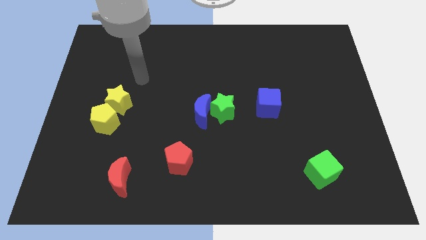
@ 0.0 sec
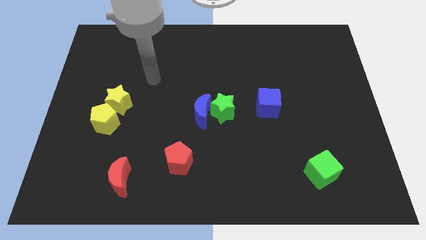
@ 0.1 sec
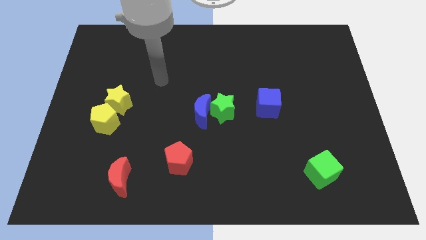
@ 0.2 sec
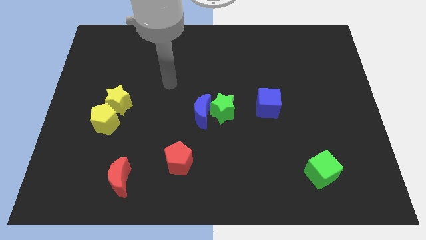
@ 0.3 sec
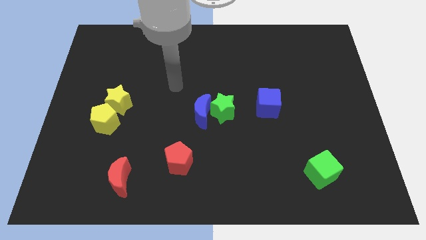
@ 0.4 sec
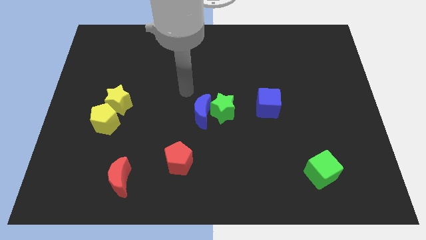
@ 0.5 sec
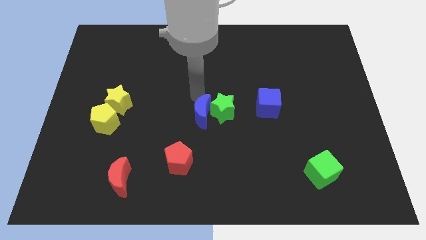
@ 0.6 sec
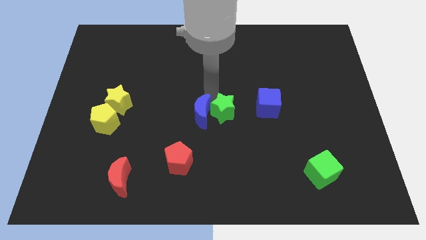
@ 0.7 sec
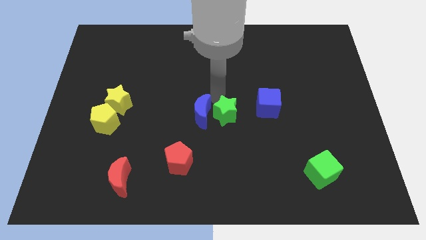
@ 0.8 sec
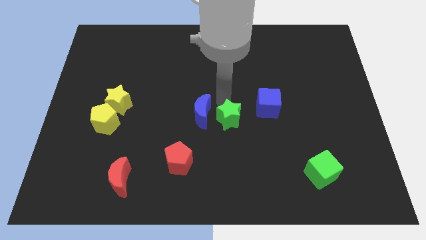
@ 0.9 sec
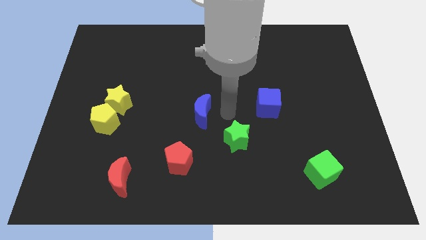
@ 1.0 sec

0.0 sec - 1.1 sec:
separate the blue moon from the green star

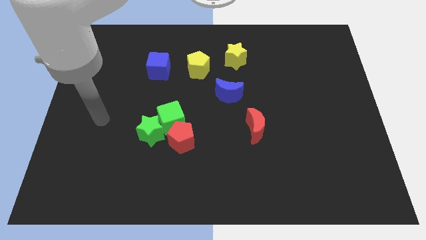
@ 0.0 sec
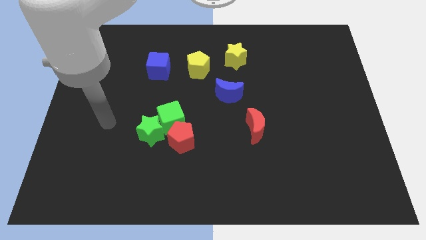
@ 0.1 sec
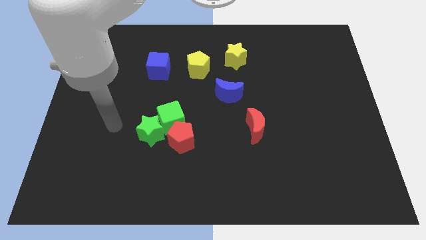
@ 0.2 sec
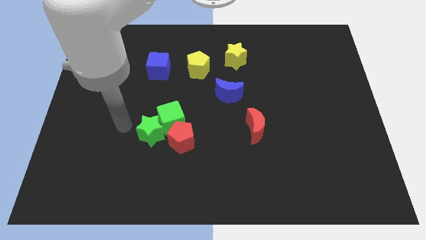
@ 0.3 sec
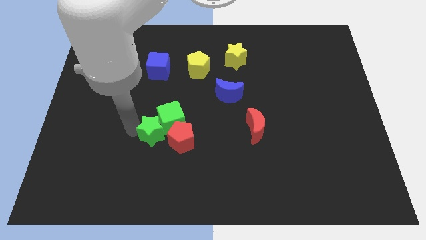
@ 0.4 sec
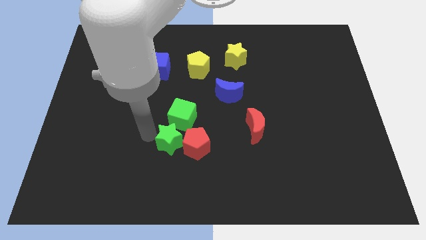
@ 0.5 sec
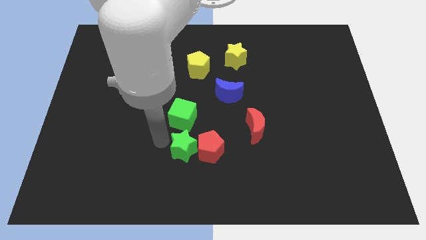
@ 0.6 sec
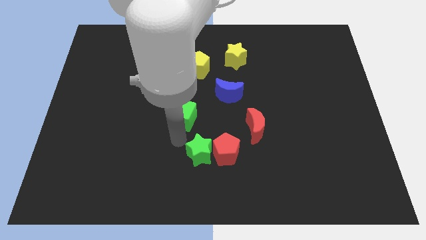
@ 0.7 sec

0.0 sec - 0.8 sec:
separate the green cube from the green star and red pentagon

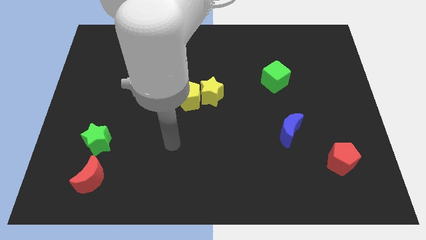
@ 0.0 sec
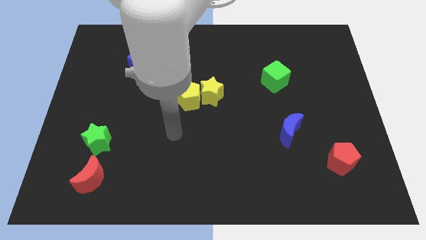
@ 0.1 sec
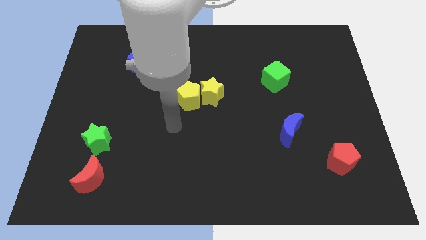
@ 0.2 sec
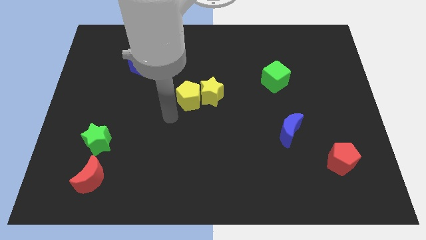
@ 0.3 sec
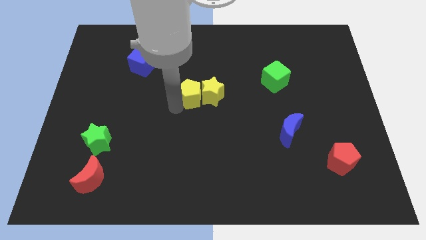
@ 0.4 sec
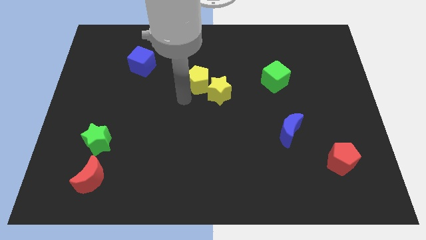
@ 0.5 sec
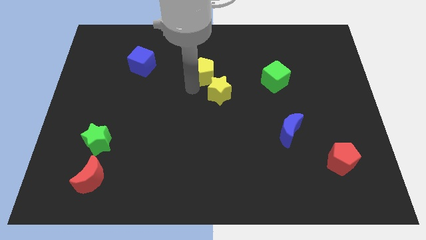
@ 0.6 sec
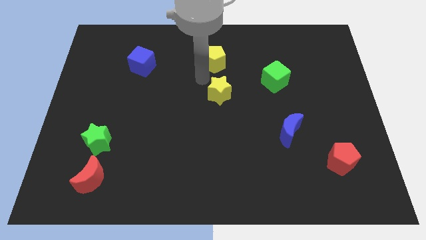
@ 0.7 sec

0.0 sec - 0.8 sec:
move the yellow star away from the yellow pentagon

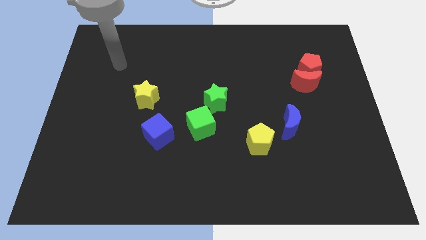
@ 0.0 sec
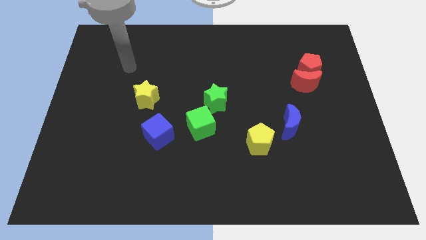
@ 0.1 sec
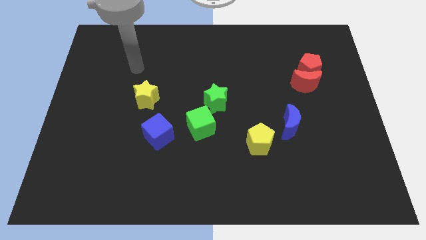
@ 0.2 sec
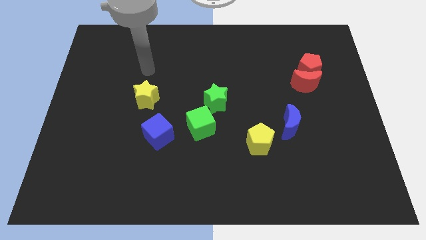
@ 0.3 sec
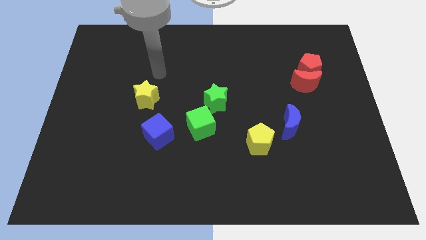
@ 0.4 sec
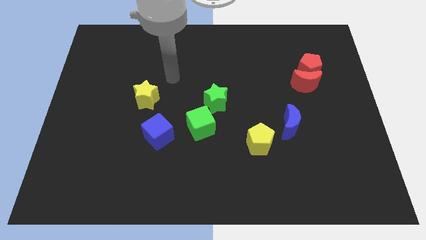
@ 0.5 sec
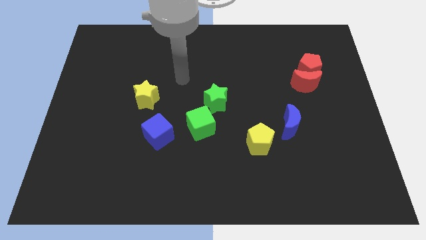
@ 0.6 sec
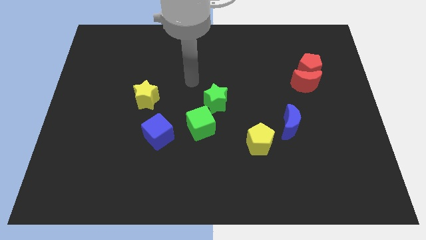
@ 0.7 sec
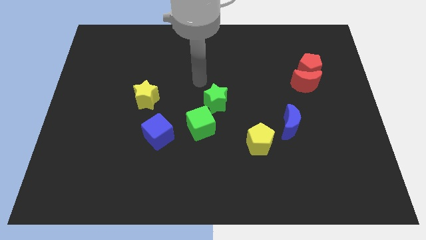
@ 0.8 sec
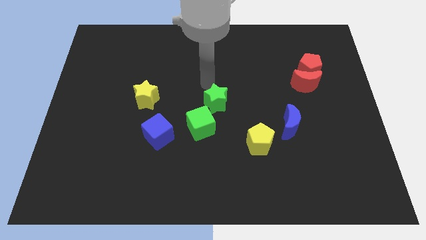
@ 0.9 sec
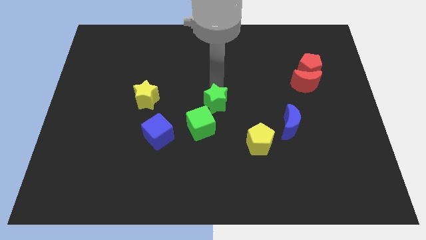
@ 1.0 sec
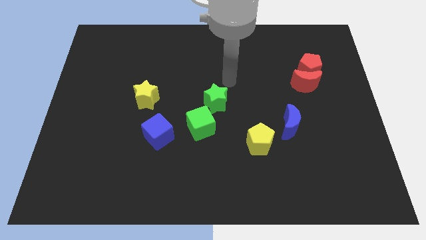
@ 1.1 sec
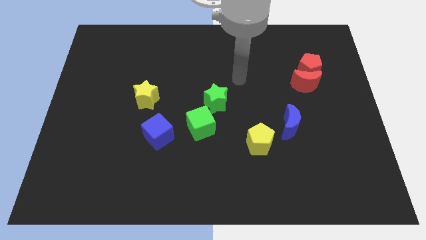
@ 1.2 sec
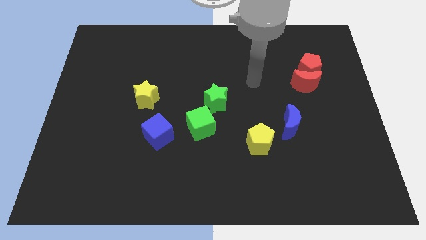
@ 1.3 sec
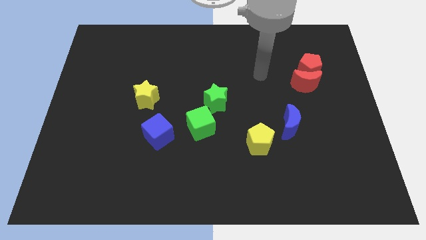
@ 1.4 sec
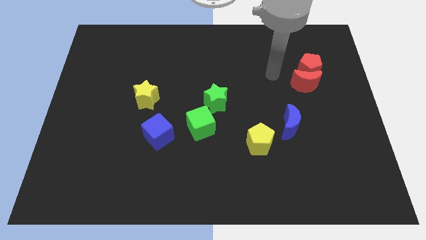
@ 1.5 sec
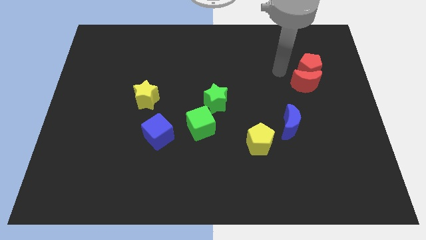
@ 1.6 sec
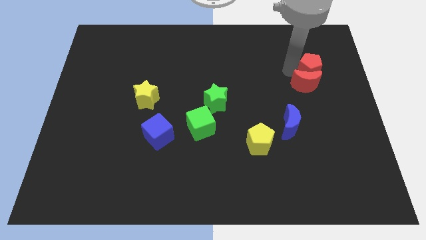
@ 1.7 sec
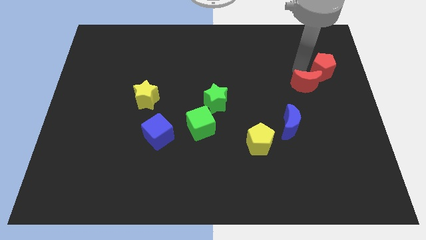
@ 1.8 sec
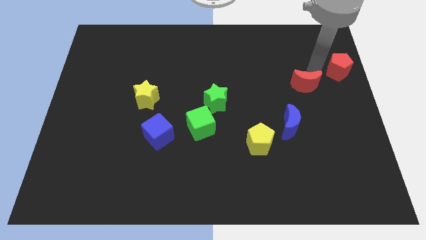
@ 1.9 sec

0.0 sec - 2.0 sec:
separate the red moon from the red pentagon

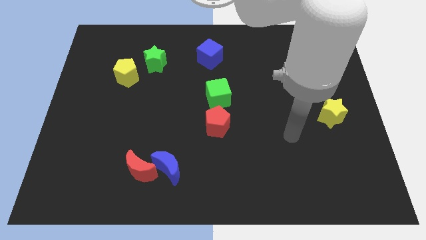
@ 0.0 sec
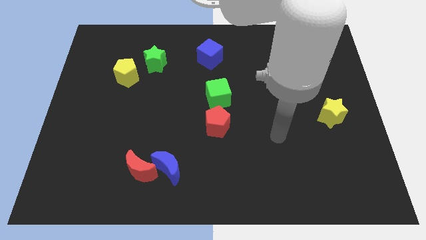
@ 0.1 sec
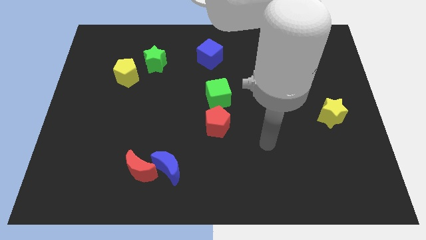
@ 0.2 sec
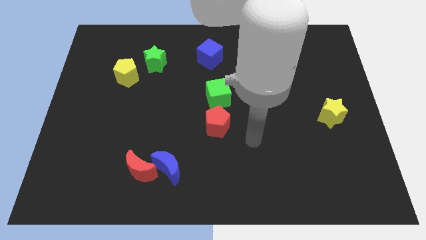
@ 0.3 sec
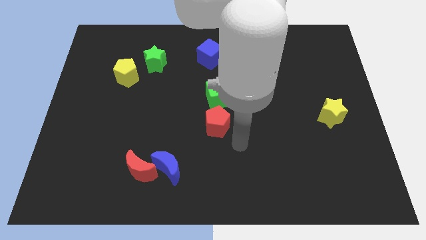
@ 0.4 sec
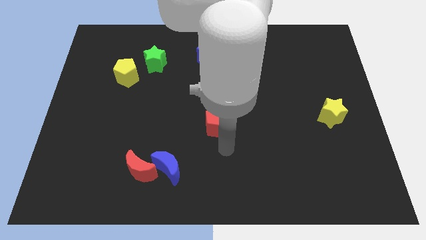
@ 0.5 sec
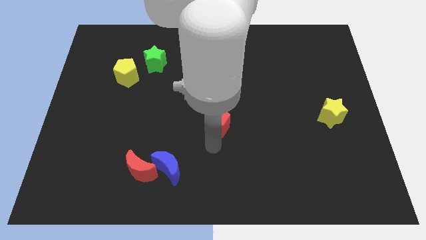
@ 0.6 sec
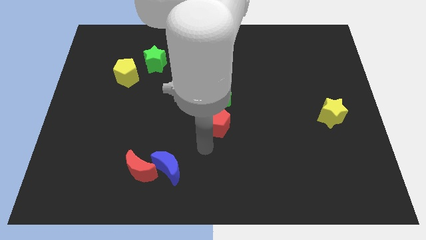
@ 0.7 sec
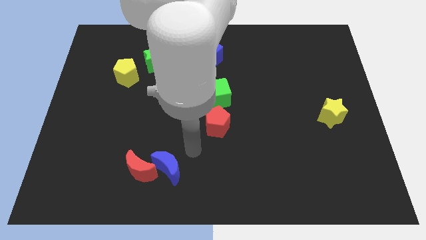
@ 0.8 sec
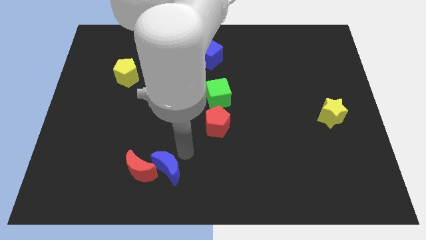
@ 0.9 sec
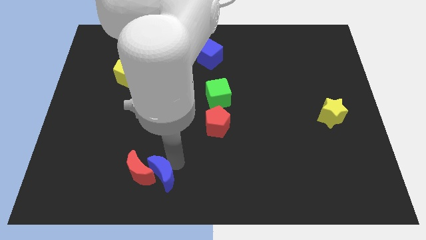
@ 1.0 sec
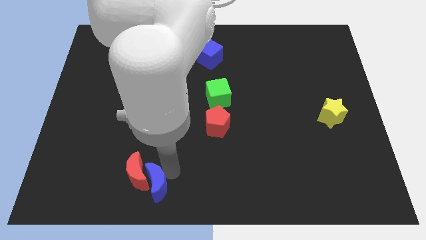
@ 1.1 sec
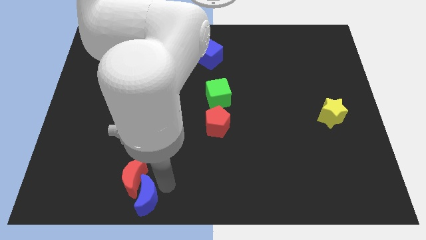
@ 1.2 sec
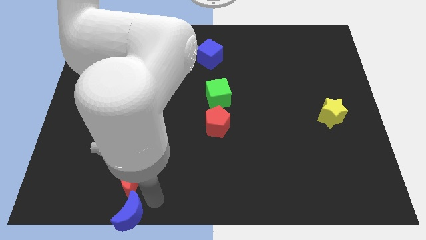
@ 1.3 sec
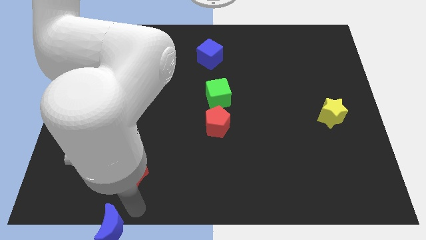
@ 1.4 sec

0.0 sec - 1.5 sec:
separate the red moon from the blue moon

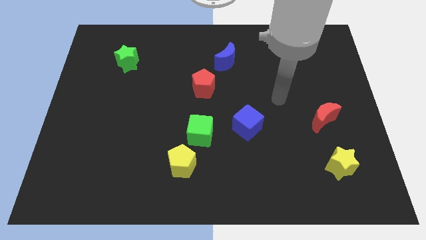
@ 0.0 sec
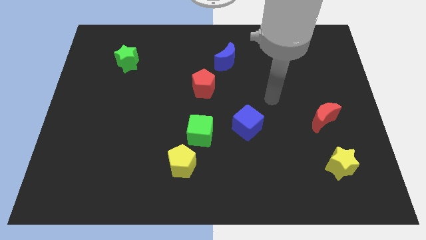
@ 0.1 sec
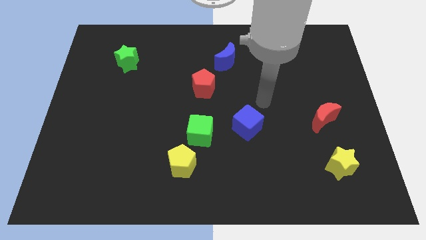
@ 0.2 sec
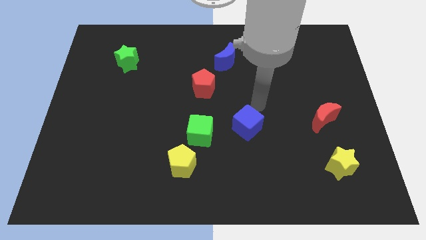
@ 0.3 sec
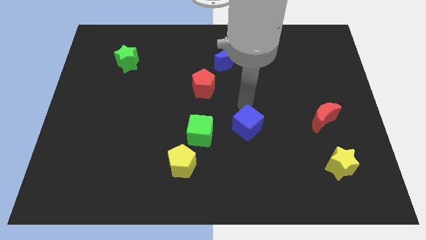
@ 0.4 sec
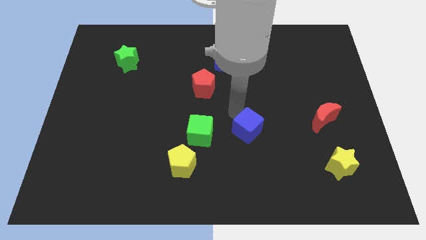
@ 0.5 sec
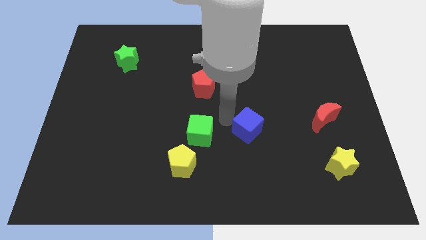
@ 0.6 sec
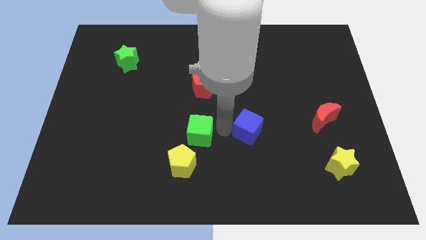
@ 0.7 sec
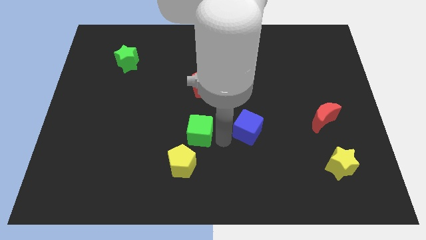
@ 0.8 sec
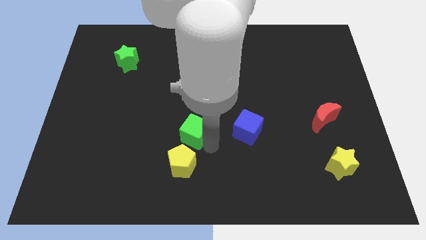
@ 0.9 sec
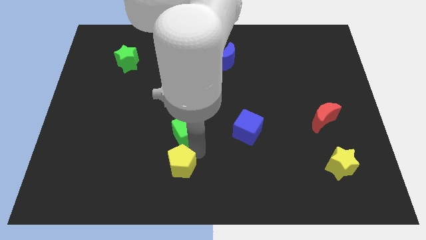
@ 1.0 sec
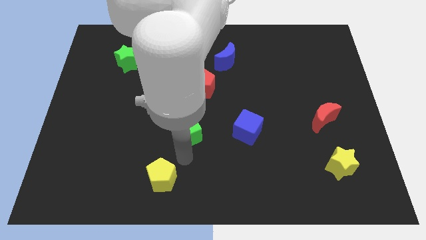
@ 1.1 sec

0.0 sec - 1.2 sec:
move the green cube away from the yellow pentagon

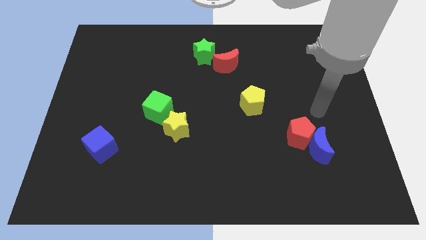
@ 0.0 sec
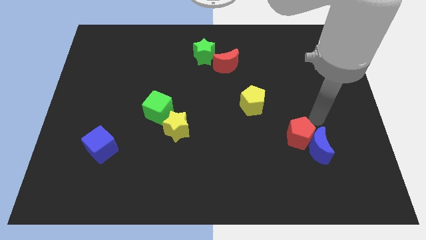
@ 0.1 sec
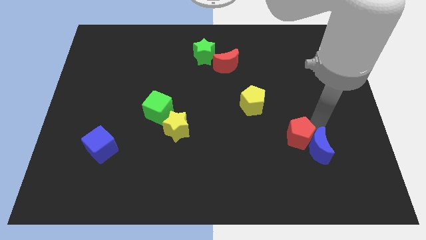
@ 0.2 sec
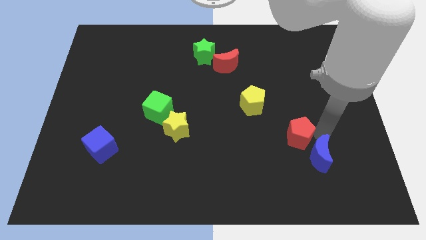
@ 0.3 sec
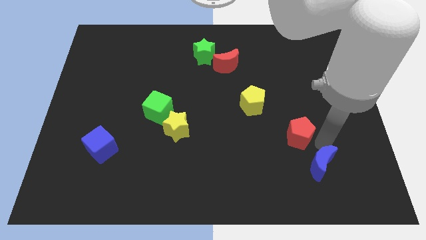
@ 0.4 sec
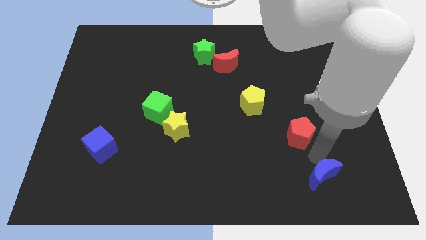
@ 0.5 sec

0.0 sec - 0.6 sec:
move the red pentagon away from the blue moon

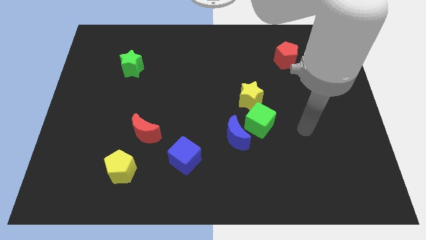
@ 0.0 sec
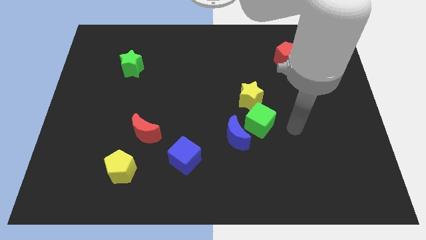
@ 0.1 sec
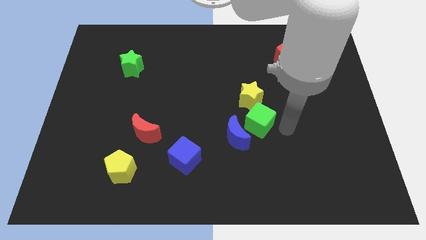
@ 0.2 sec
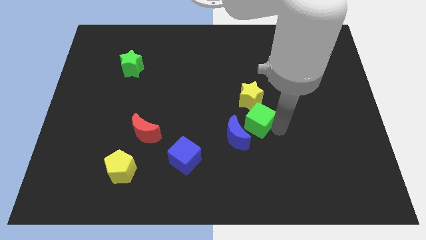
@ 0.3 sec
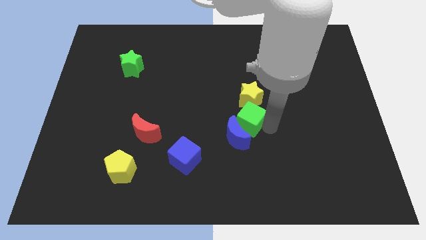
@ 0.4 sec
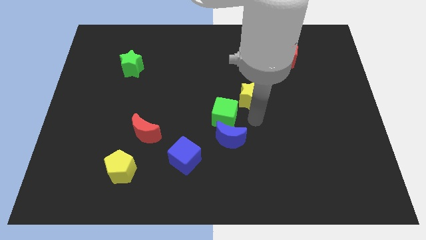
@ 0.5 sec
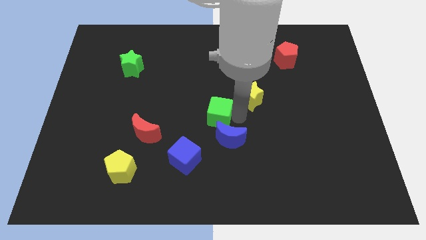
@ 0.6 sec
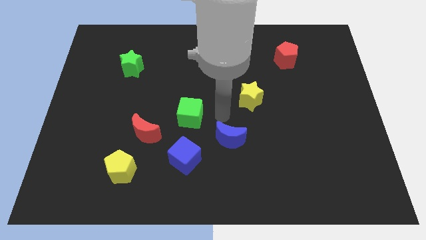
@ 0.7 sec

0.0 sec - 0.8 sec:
pull the blue moon apart from the green cube

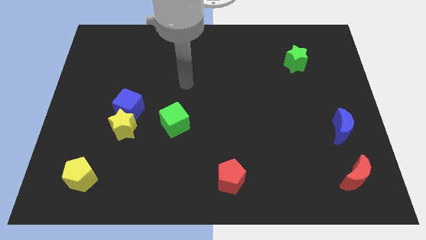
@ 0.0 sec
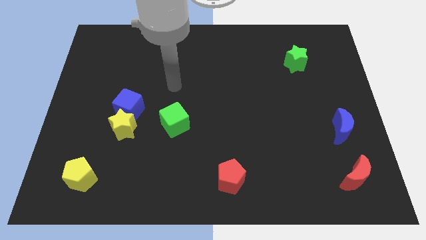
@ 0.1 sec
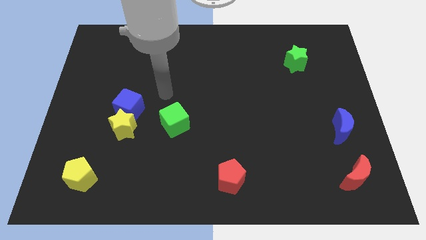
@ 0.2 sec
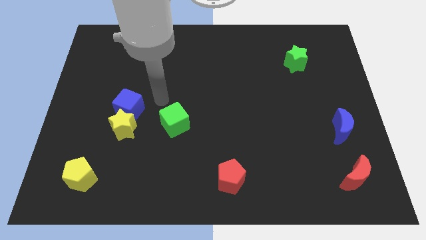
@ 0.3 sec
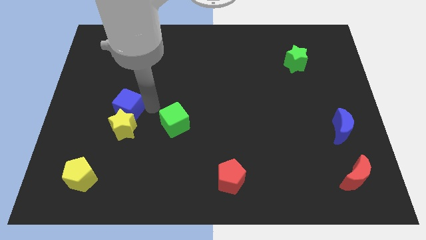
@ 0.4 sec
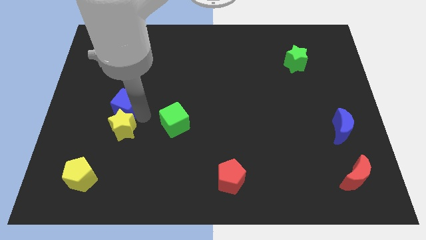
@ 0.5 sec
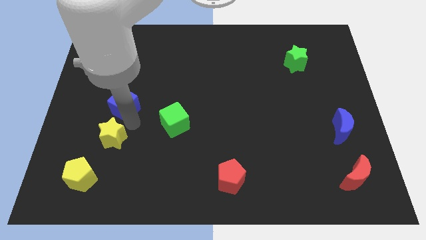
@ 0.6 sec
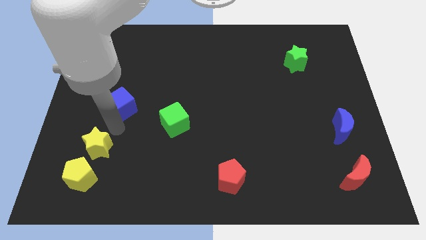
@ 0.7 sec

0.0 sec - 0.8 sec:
separate the blue cube from the yellow star
